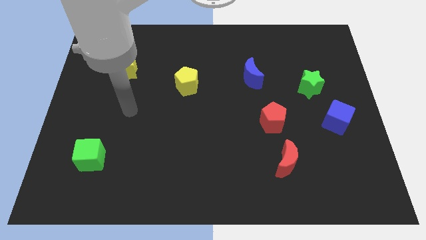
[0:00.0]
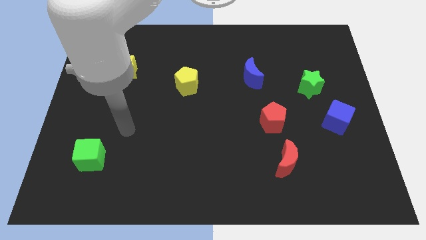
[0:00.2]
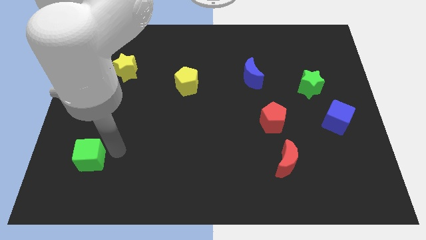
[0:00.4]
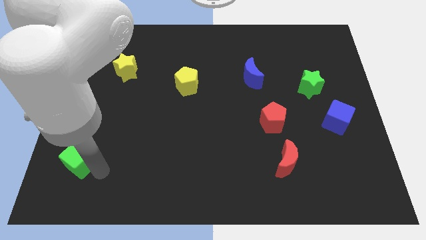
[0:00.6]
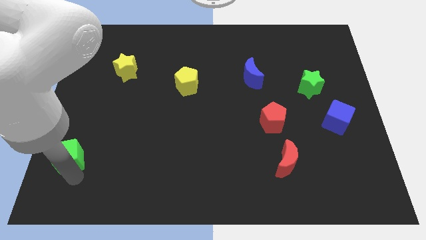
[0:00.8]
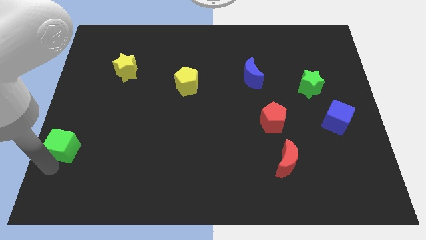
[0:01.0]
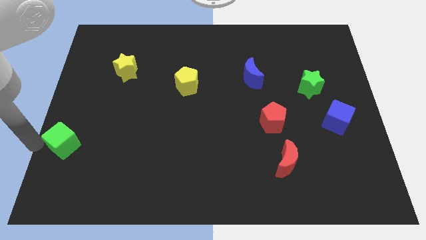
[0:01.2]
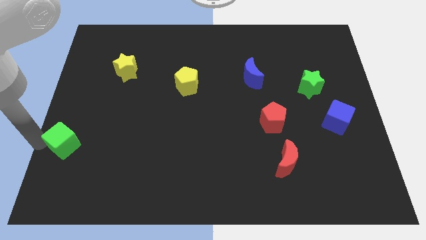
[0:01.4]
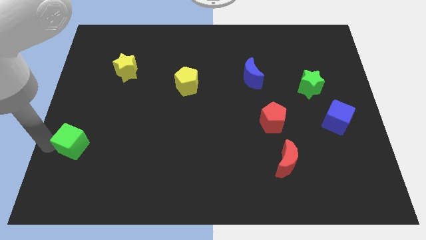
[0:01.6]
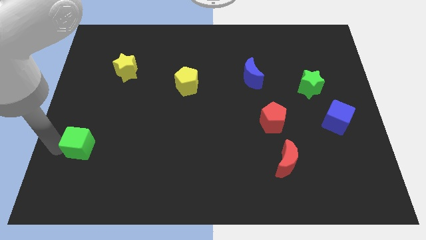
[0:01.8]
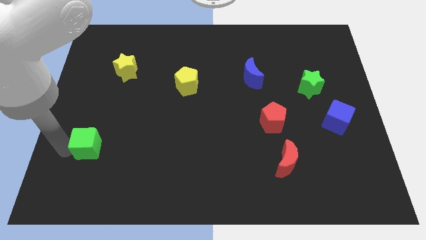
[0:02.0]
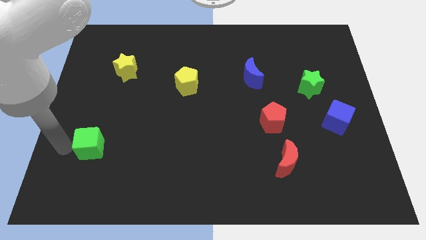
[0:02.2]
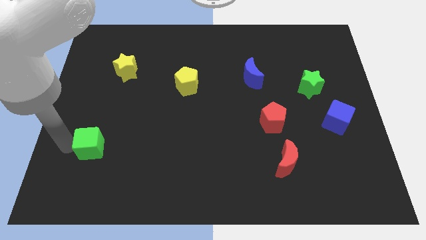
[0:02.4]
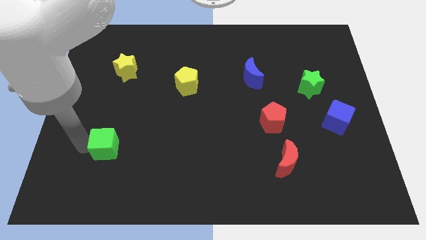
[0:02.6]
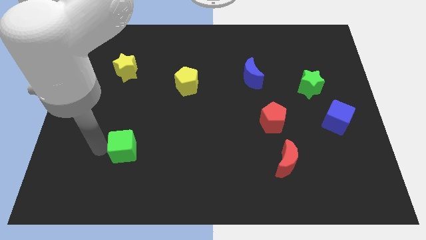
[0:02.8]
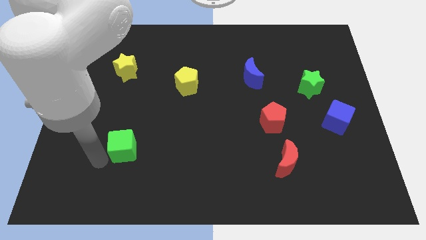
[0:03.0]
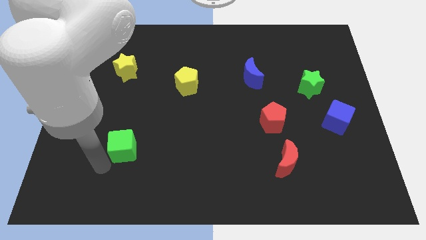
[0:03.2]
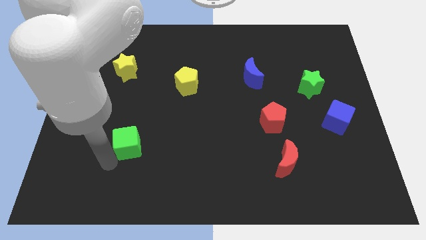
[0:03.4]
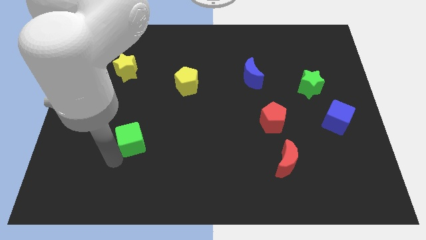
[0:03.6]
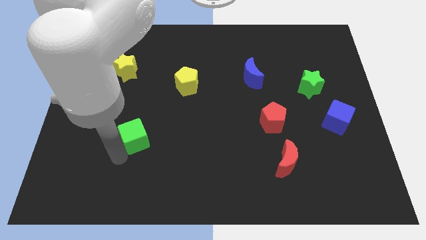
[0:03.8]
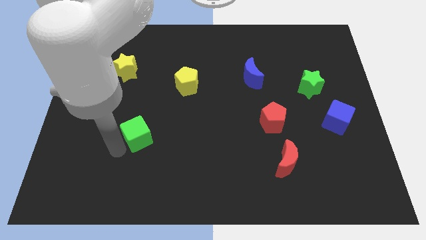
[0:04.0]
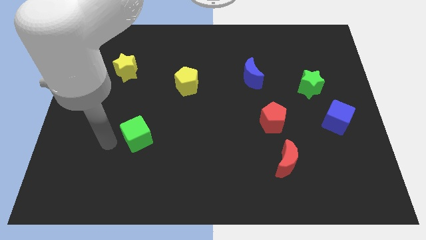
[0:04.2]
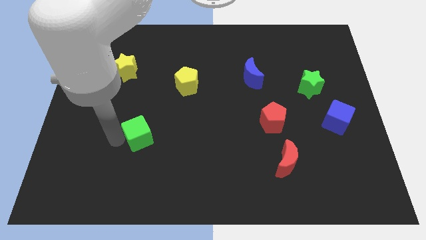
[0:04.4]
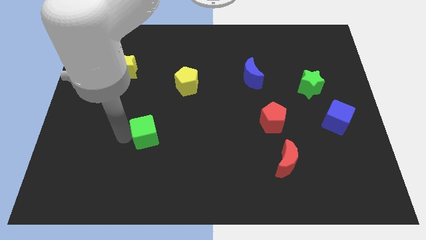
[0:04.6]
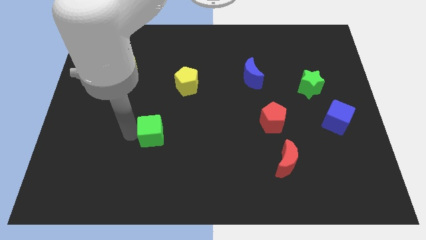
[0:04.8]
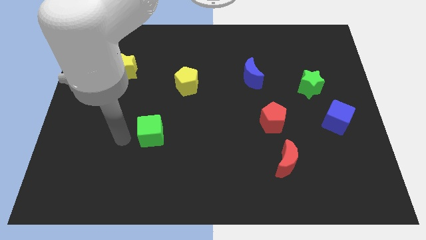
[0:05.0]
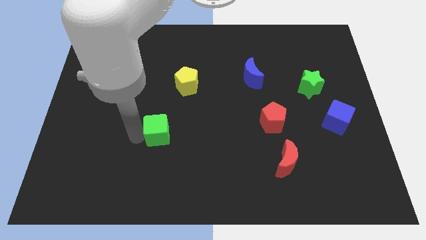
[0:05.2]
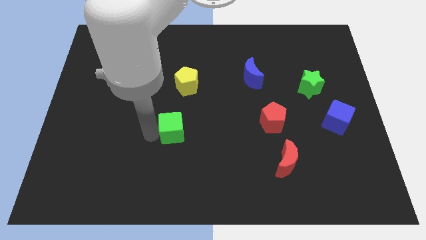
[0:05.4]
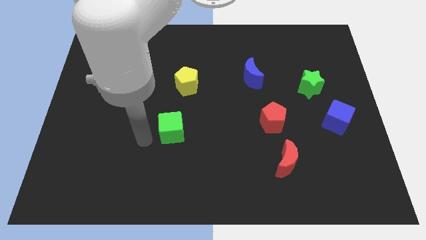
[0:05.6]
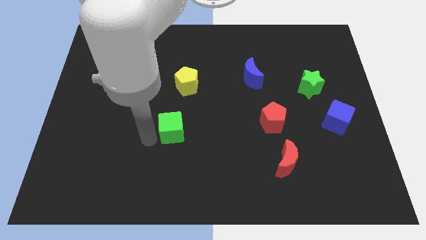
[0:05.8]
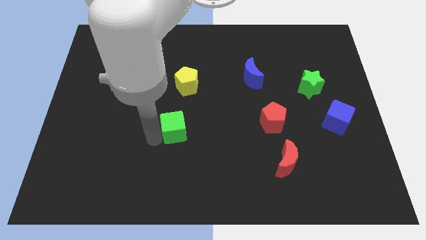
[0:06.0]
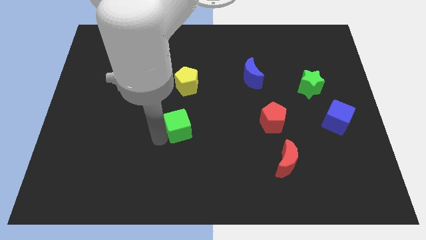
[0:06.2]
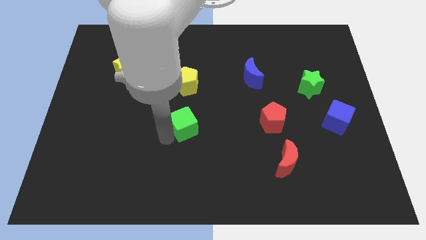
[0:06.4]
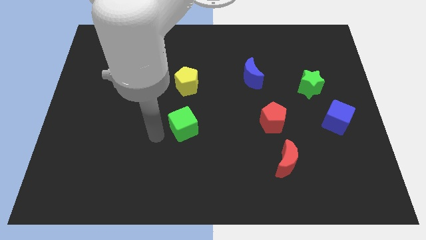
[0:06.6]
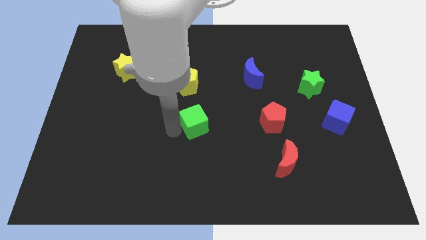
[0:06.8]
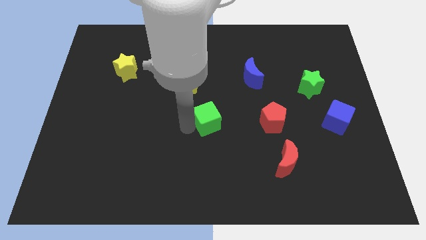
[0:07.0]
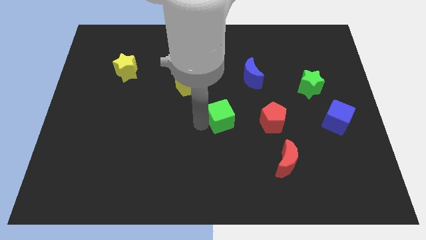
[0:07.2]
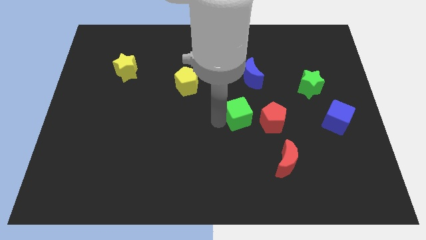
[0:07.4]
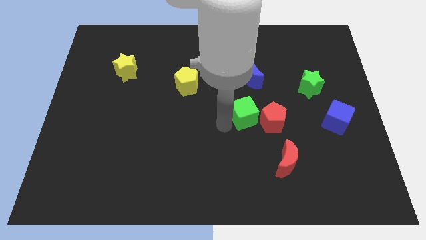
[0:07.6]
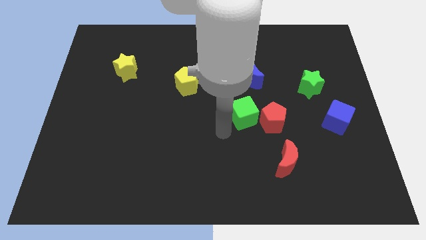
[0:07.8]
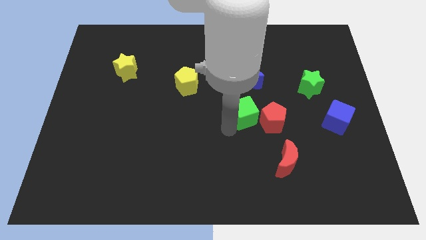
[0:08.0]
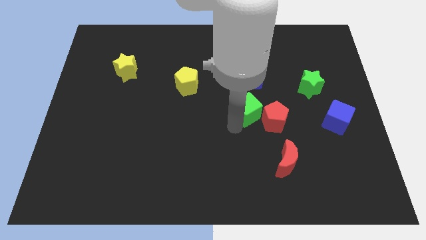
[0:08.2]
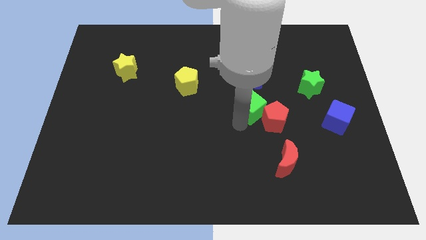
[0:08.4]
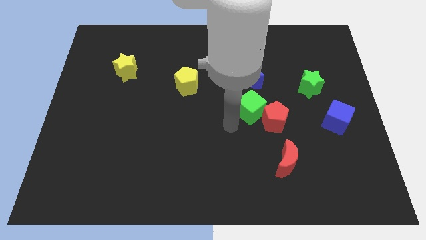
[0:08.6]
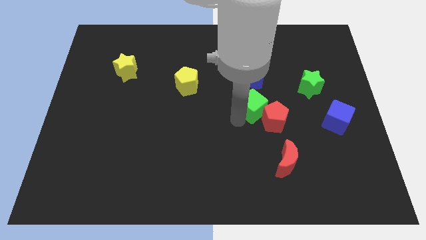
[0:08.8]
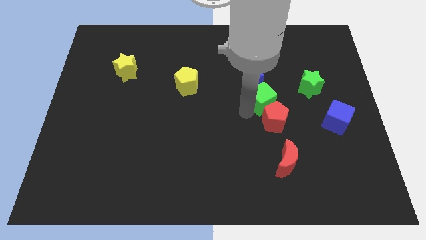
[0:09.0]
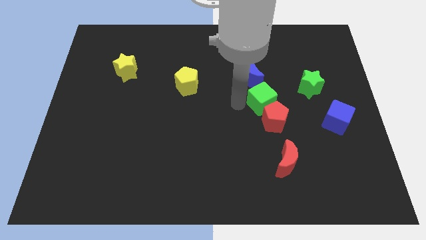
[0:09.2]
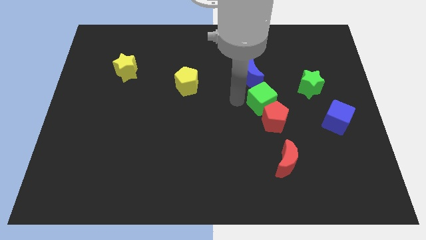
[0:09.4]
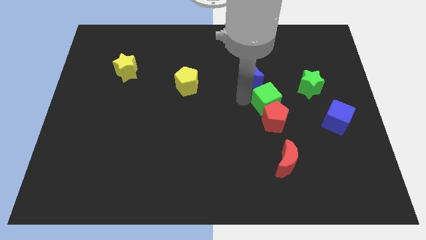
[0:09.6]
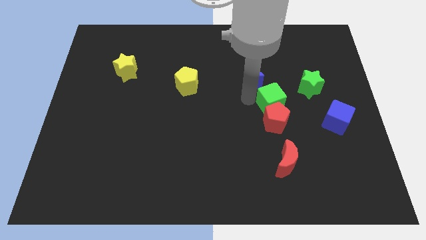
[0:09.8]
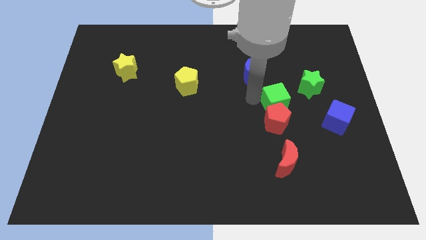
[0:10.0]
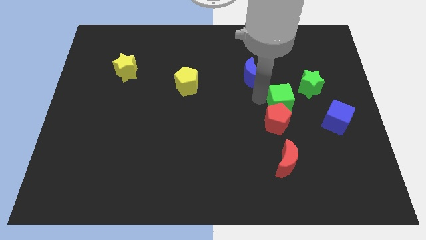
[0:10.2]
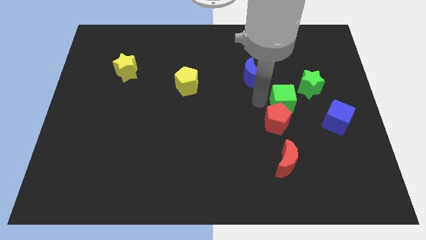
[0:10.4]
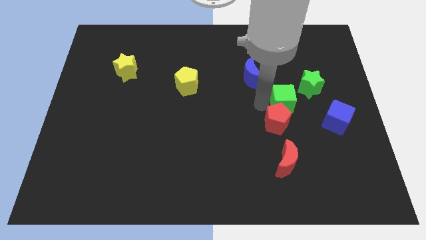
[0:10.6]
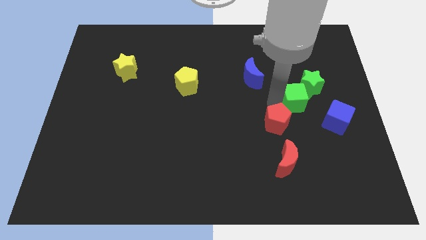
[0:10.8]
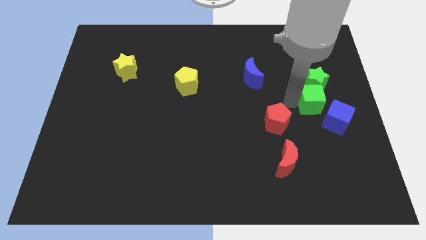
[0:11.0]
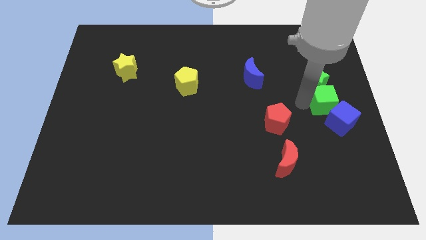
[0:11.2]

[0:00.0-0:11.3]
move the green cube to the right side
